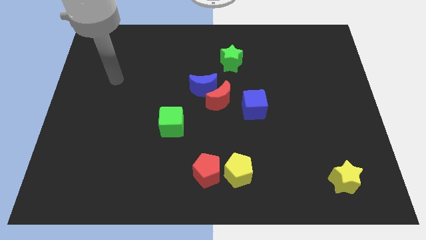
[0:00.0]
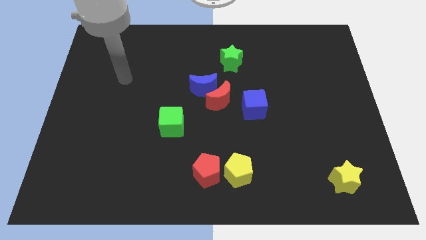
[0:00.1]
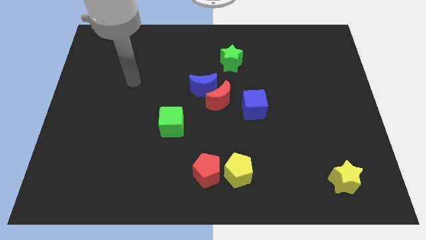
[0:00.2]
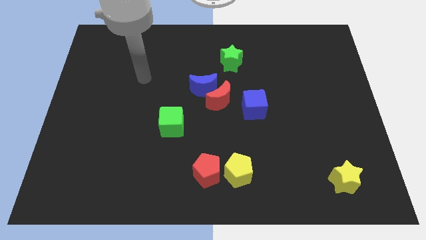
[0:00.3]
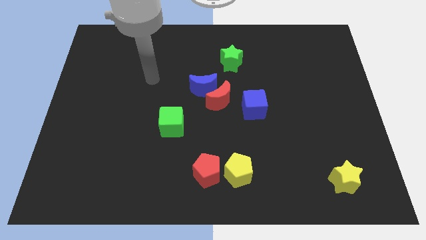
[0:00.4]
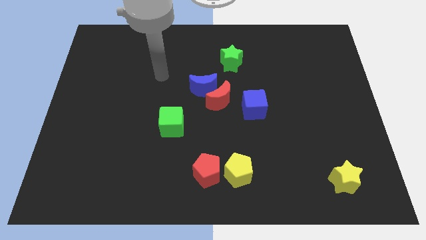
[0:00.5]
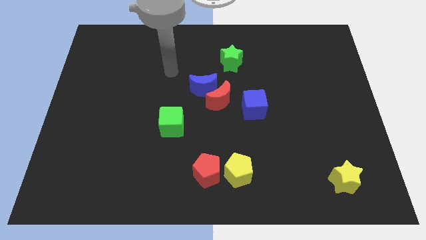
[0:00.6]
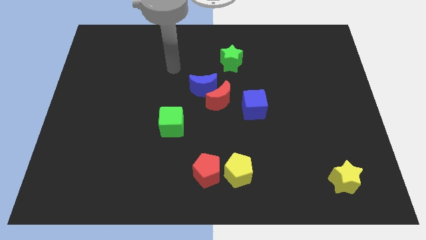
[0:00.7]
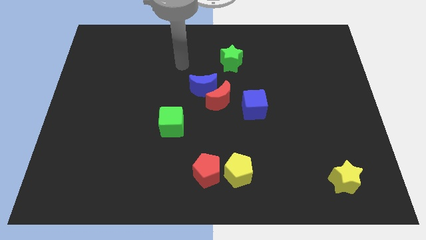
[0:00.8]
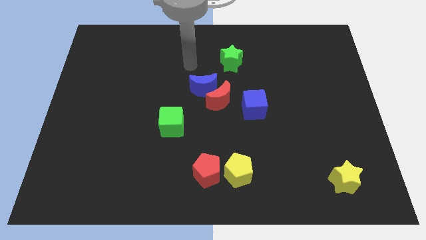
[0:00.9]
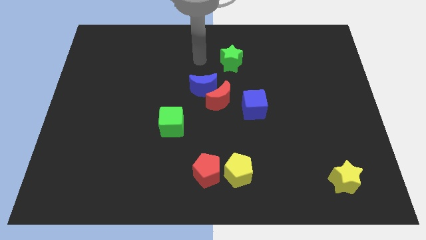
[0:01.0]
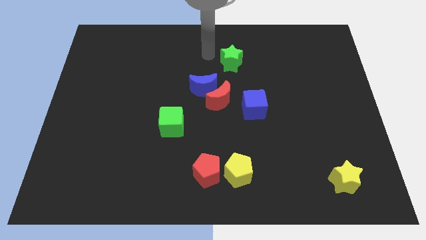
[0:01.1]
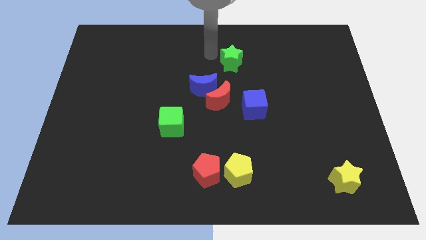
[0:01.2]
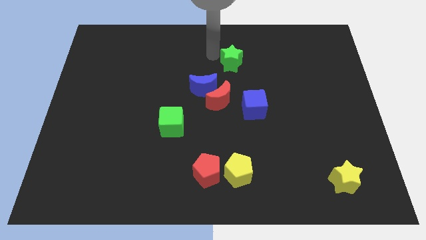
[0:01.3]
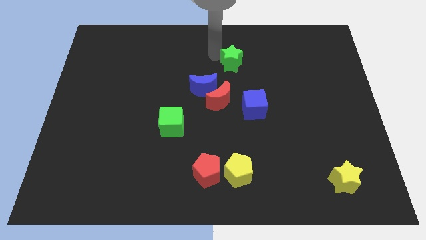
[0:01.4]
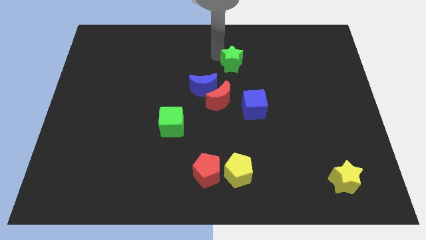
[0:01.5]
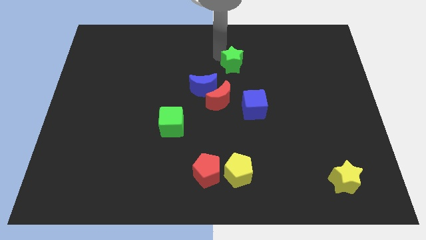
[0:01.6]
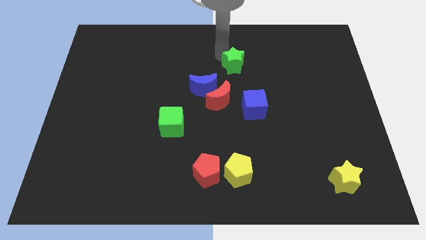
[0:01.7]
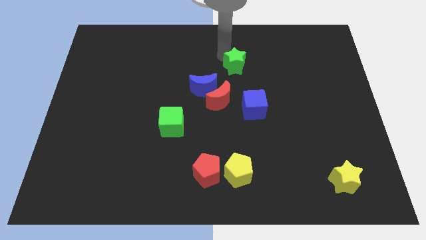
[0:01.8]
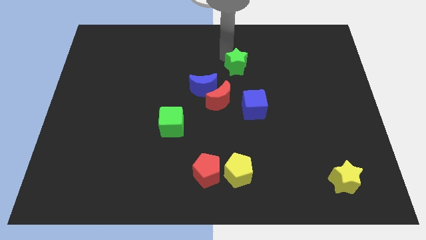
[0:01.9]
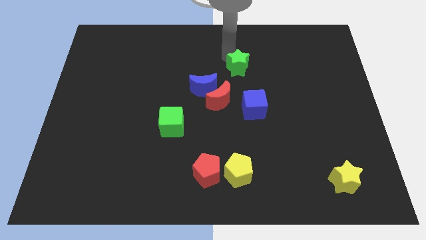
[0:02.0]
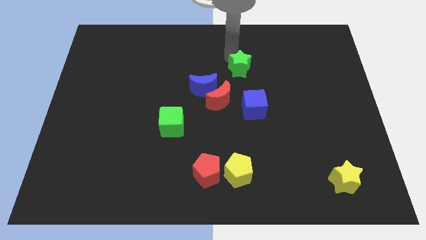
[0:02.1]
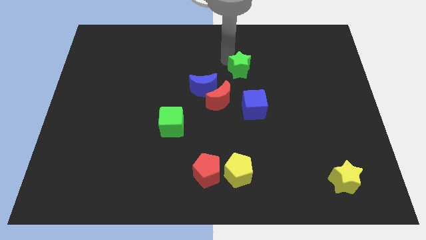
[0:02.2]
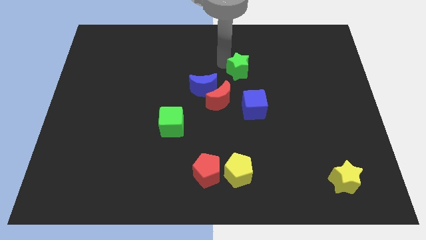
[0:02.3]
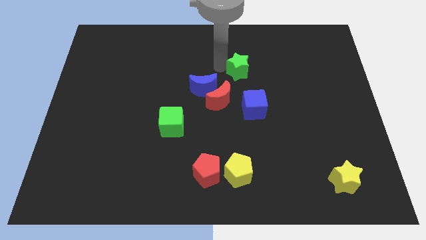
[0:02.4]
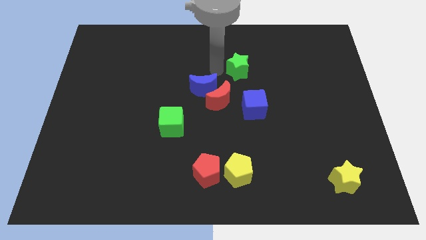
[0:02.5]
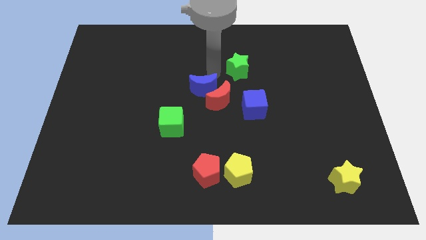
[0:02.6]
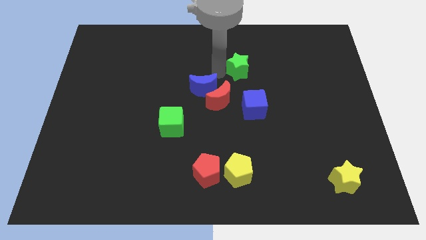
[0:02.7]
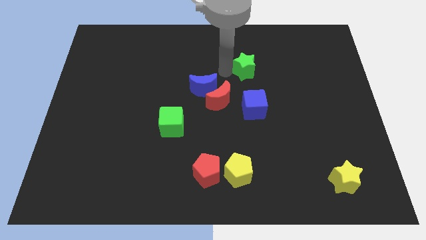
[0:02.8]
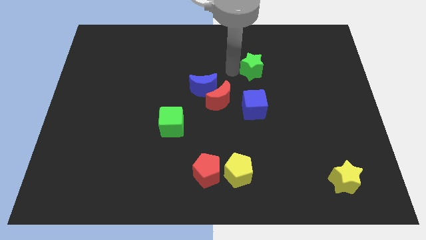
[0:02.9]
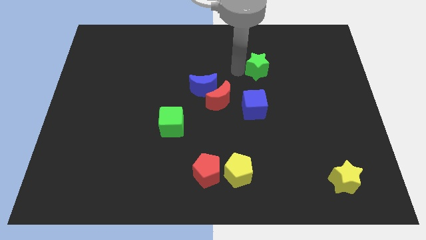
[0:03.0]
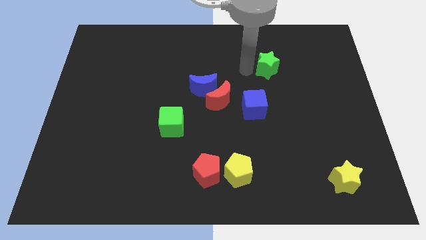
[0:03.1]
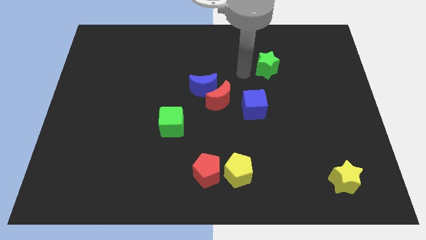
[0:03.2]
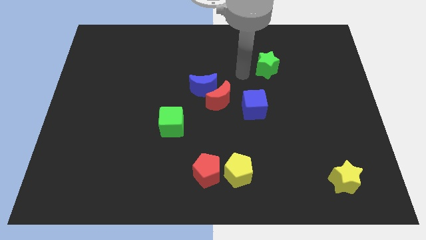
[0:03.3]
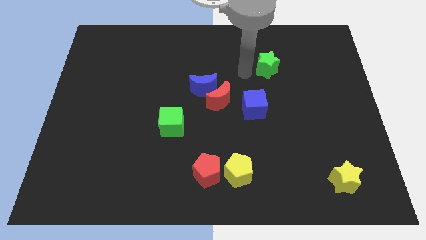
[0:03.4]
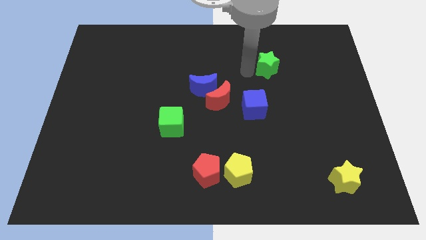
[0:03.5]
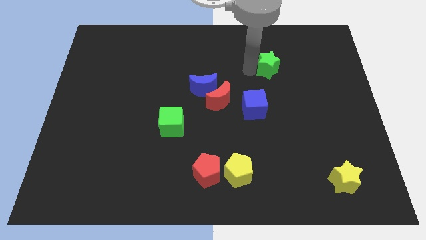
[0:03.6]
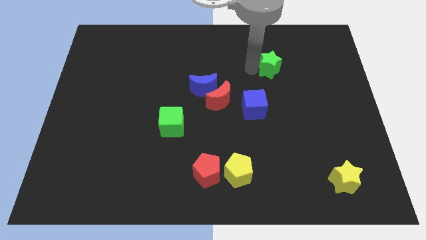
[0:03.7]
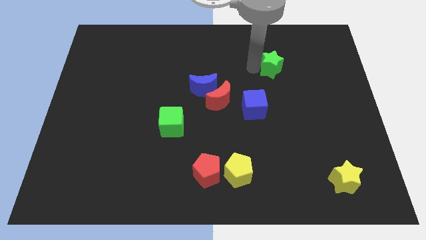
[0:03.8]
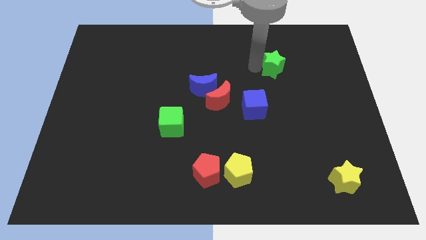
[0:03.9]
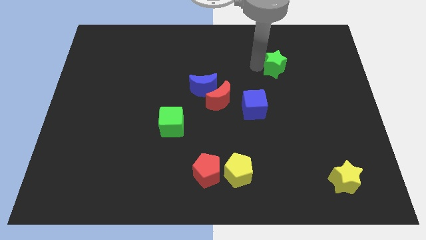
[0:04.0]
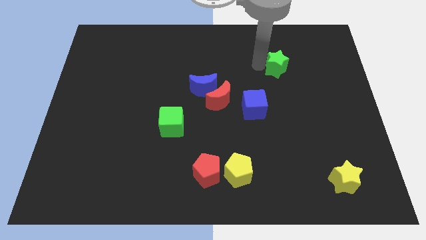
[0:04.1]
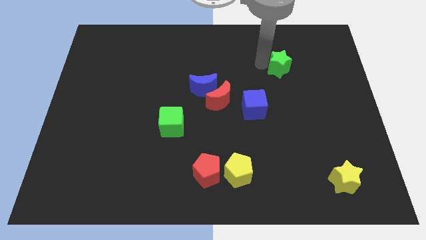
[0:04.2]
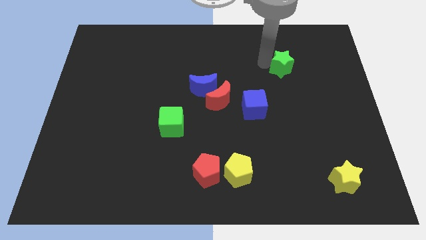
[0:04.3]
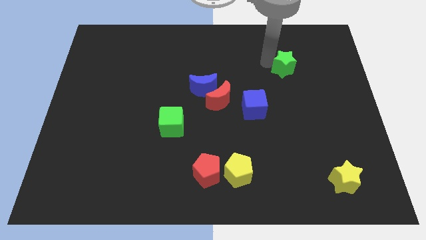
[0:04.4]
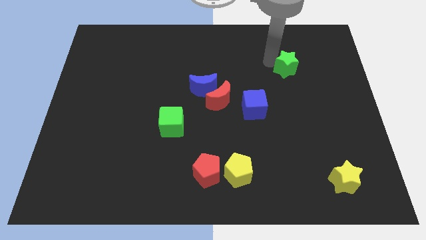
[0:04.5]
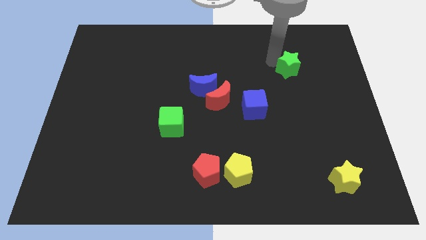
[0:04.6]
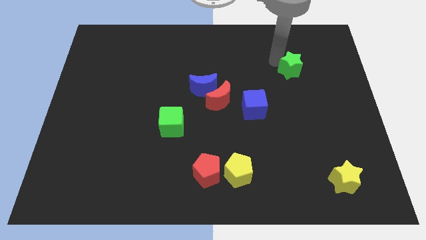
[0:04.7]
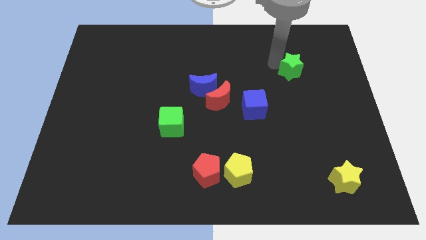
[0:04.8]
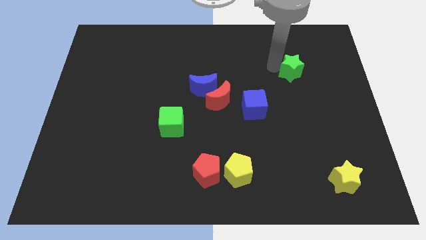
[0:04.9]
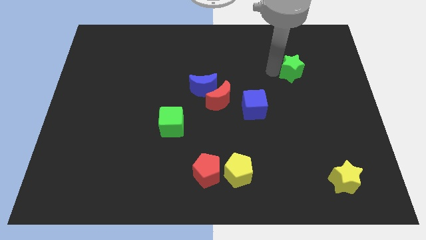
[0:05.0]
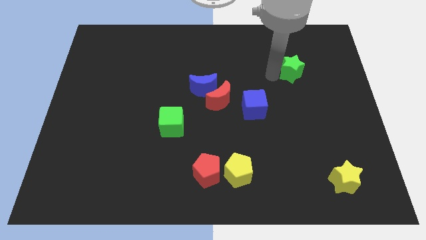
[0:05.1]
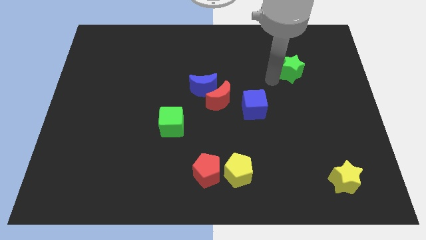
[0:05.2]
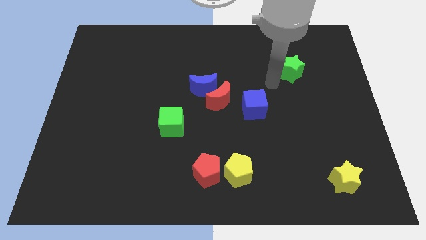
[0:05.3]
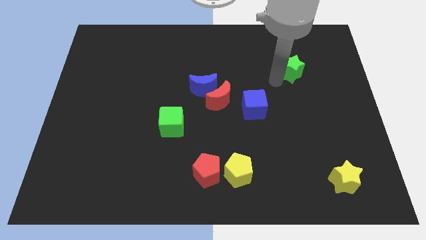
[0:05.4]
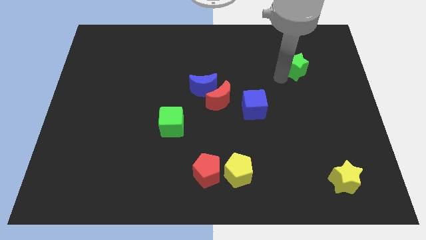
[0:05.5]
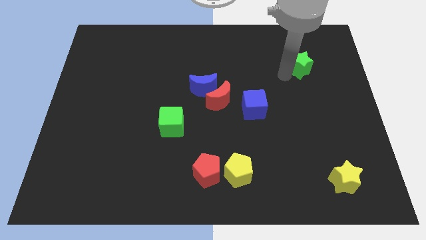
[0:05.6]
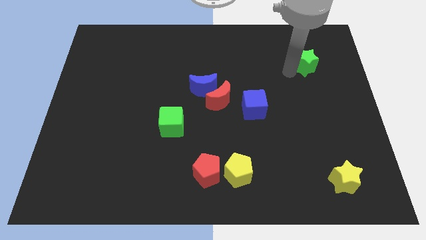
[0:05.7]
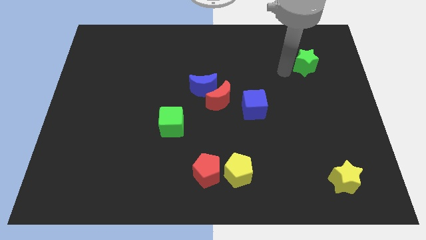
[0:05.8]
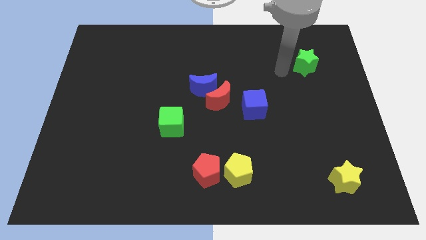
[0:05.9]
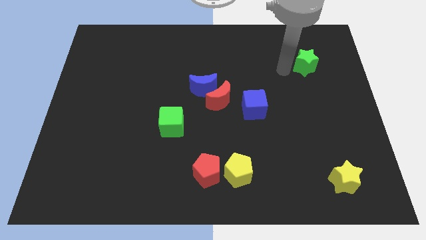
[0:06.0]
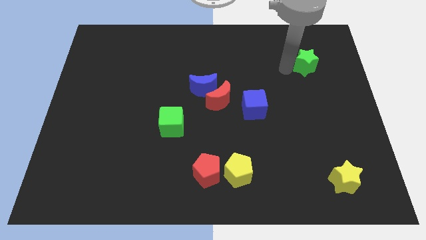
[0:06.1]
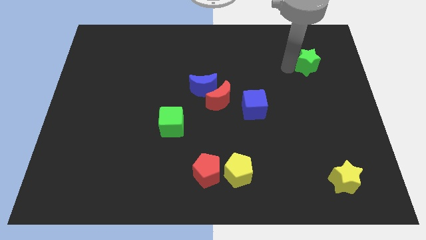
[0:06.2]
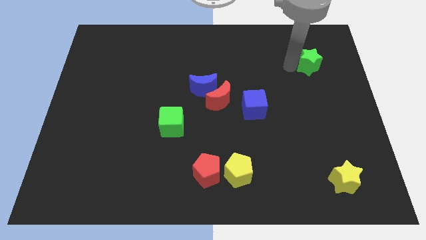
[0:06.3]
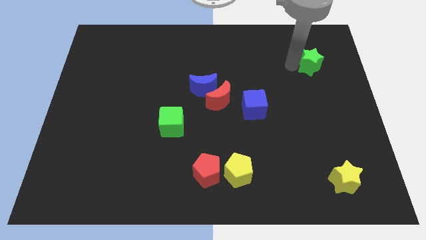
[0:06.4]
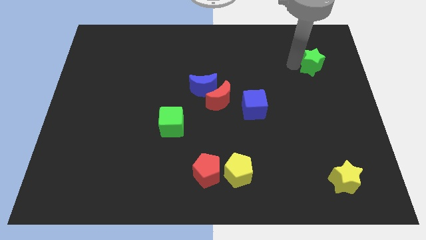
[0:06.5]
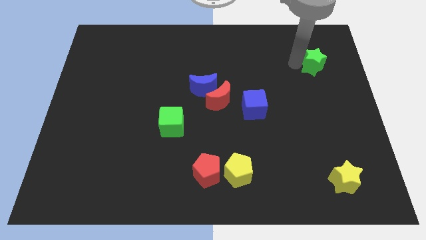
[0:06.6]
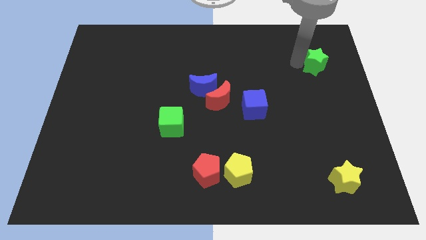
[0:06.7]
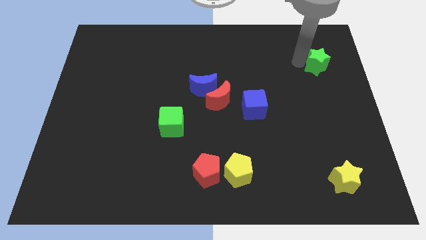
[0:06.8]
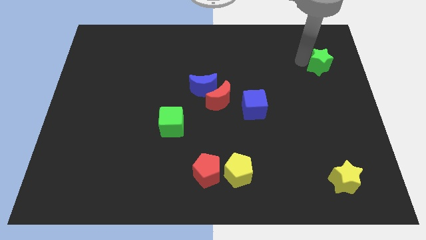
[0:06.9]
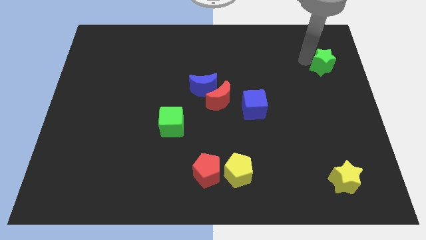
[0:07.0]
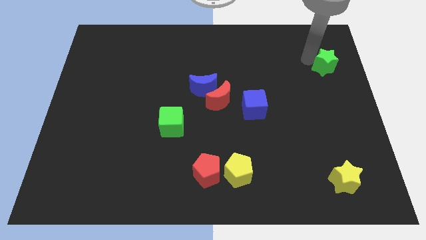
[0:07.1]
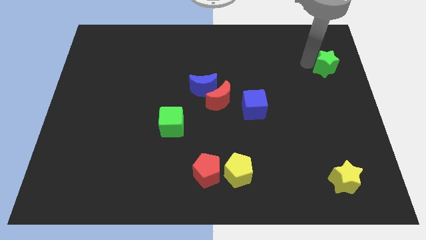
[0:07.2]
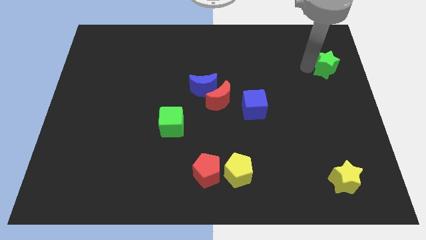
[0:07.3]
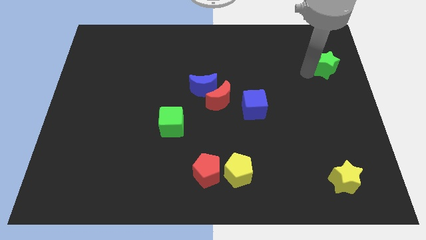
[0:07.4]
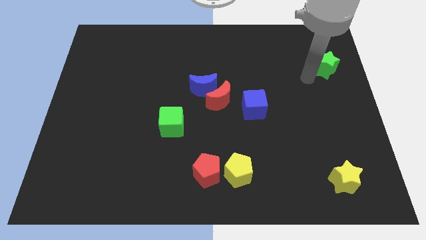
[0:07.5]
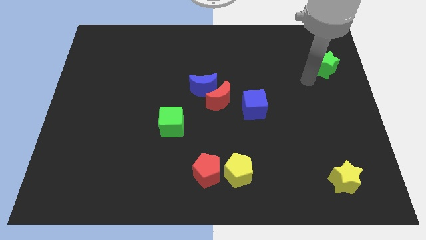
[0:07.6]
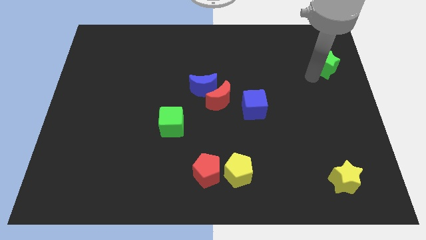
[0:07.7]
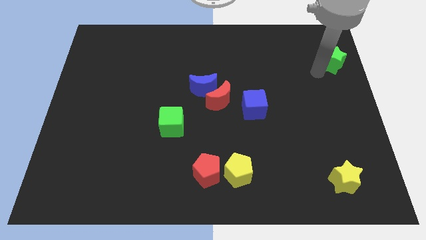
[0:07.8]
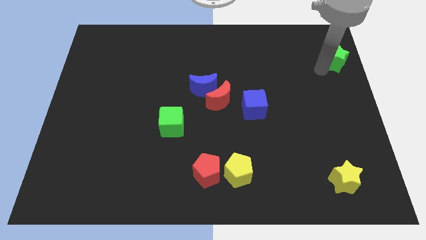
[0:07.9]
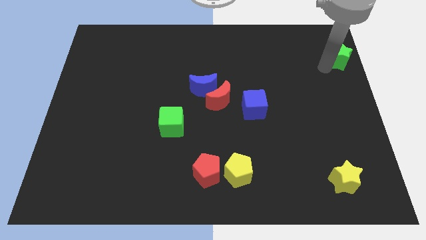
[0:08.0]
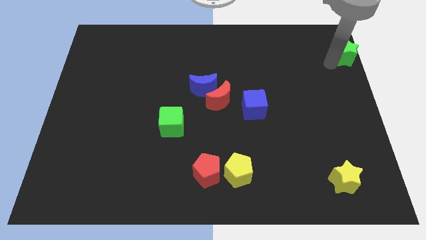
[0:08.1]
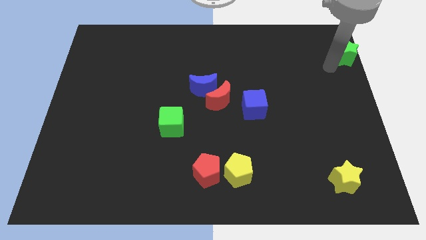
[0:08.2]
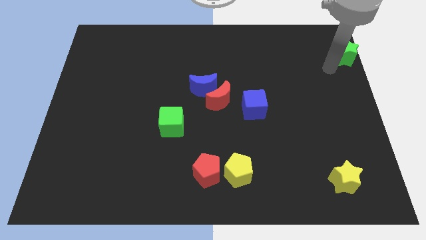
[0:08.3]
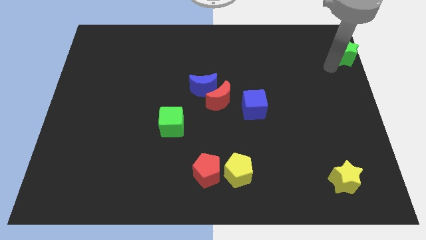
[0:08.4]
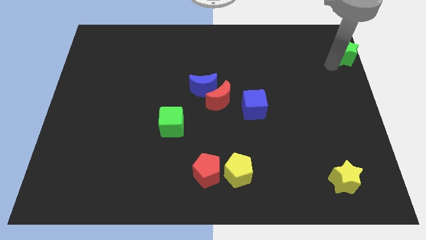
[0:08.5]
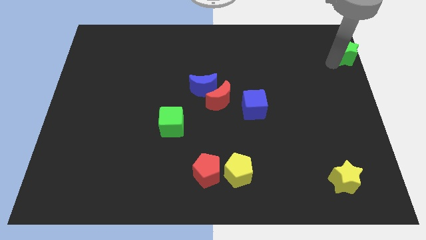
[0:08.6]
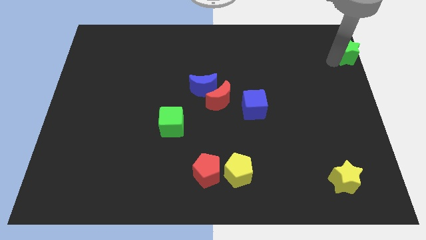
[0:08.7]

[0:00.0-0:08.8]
push the green star to the upper right corner
